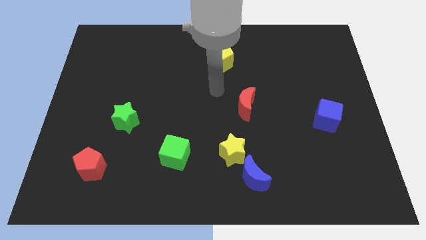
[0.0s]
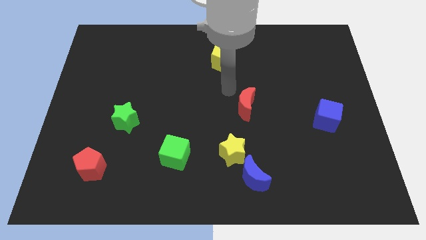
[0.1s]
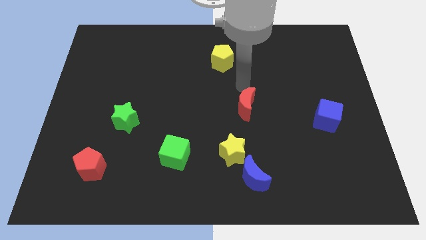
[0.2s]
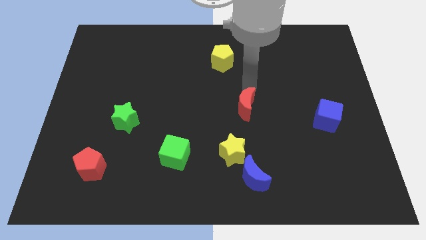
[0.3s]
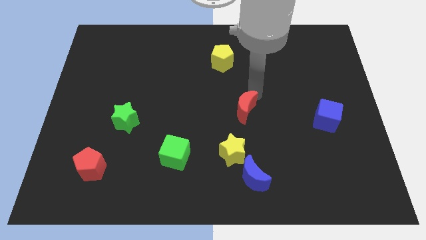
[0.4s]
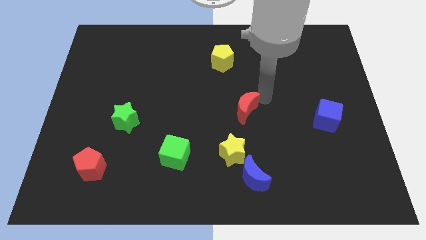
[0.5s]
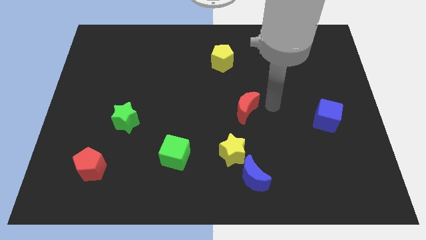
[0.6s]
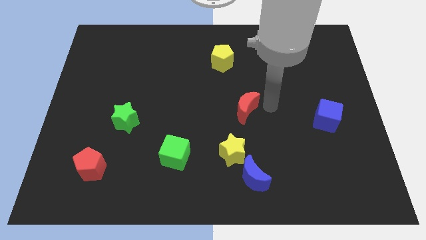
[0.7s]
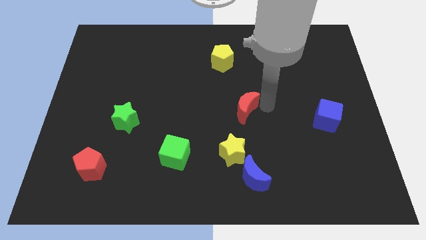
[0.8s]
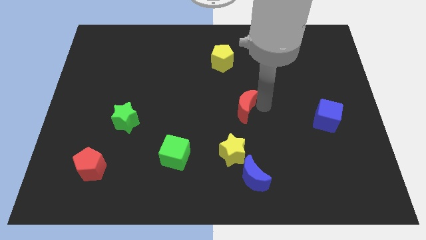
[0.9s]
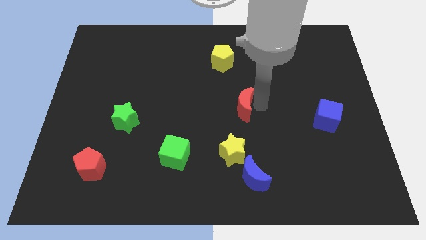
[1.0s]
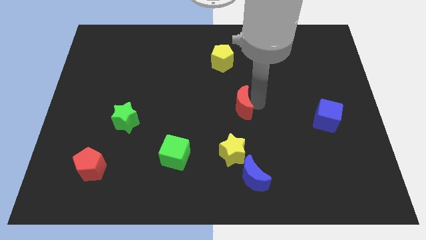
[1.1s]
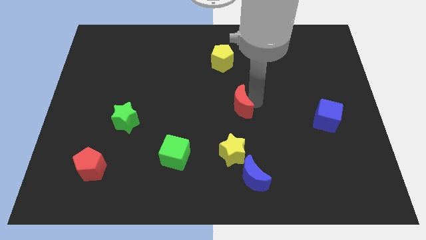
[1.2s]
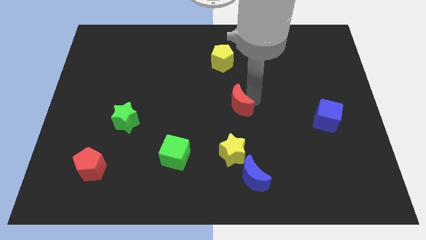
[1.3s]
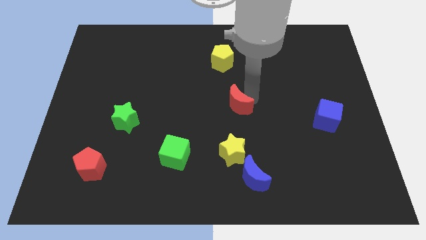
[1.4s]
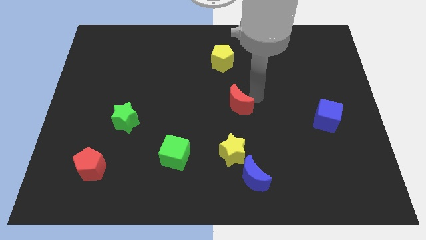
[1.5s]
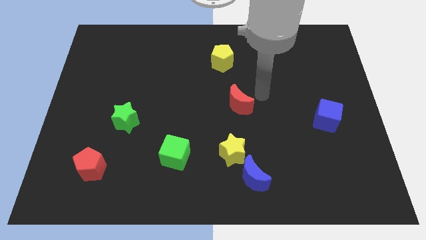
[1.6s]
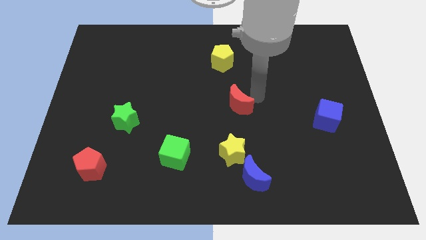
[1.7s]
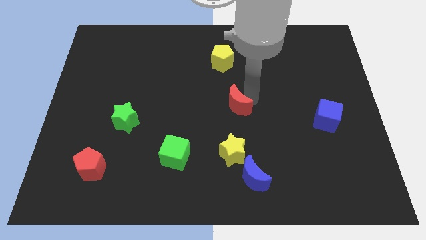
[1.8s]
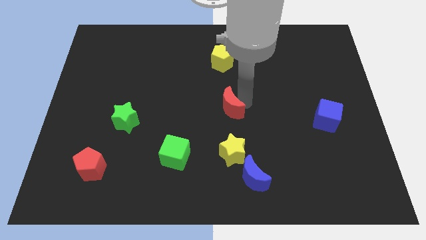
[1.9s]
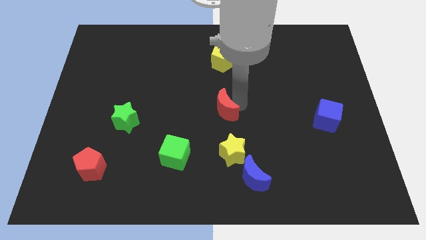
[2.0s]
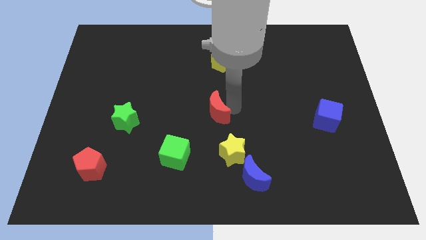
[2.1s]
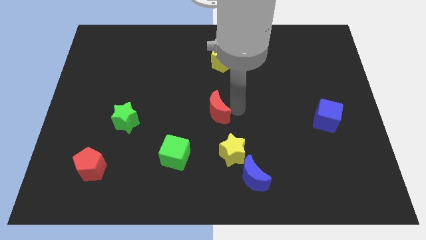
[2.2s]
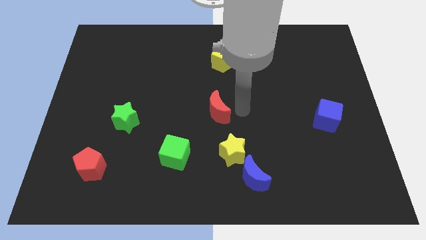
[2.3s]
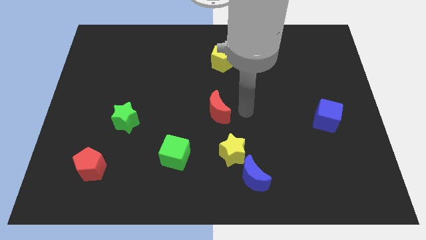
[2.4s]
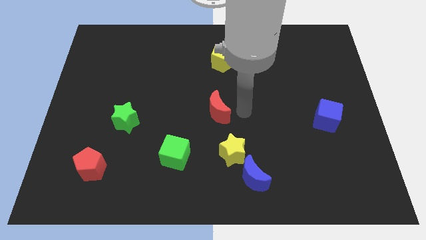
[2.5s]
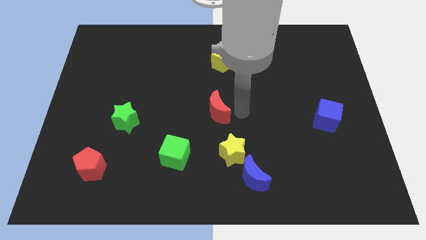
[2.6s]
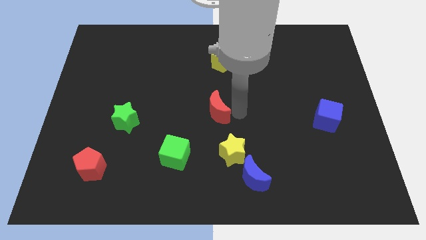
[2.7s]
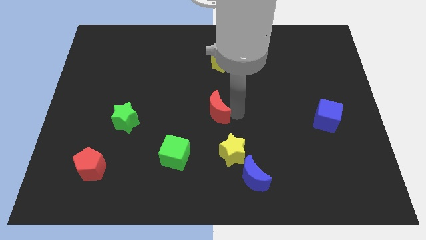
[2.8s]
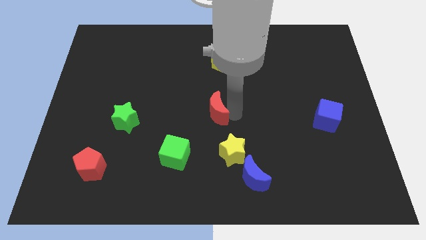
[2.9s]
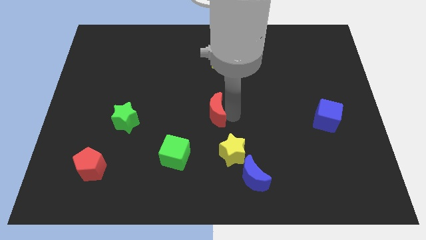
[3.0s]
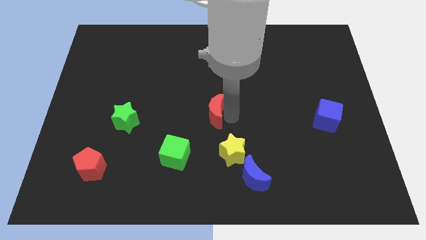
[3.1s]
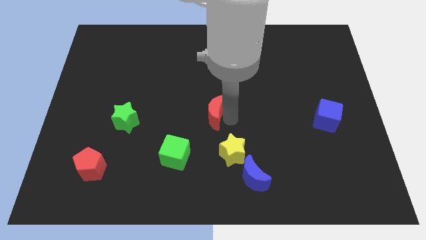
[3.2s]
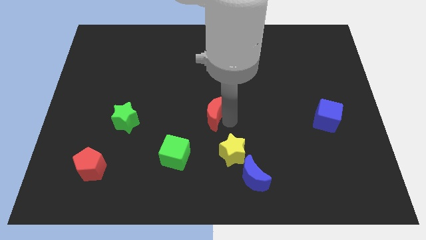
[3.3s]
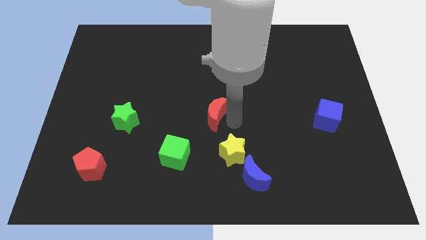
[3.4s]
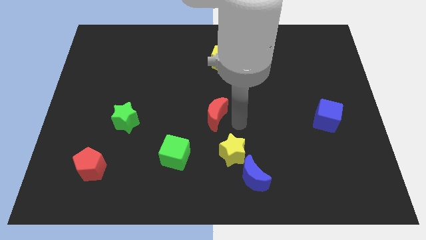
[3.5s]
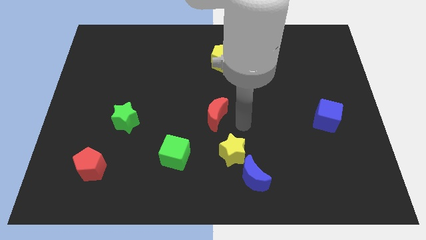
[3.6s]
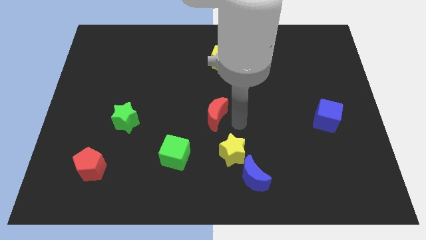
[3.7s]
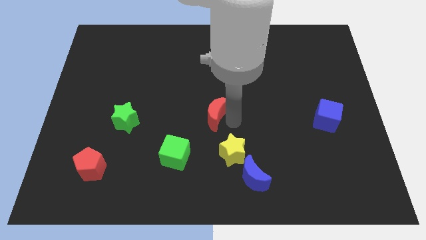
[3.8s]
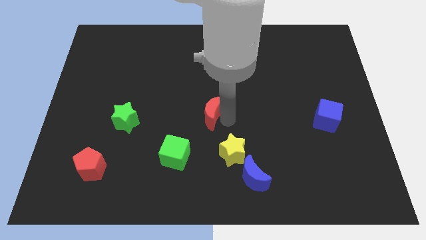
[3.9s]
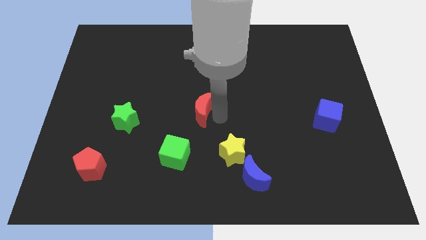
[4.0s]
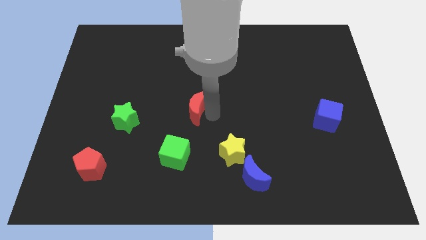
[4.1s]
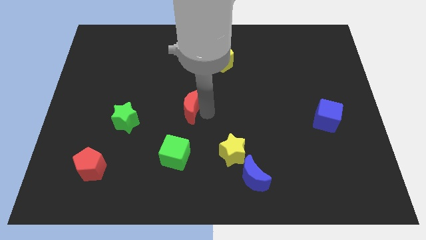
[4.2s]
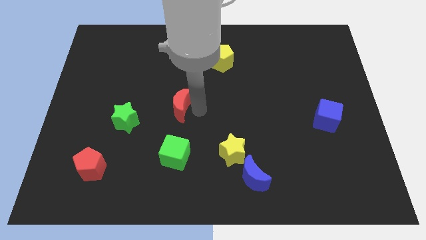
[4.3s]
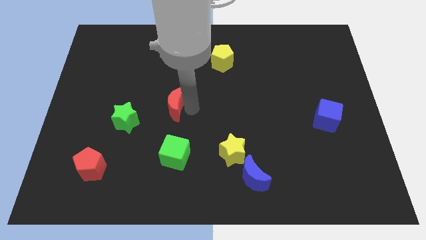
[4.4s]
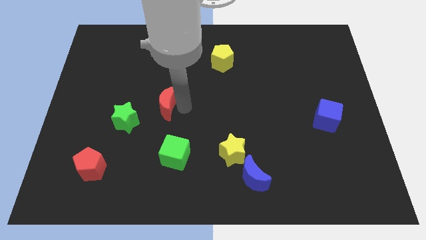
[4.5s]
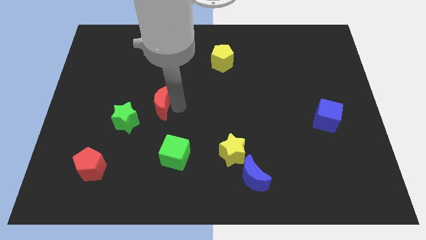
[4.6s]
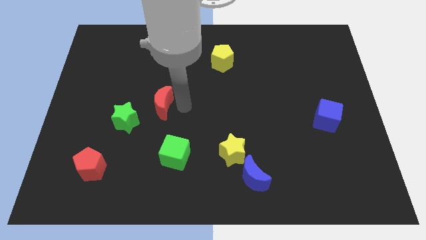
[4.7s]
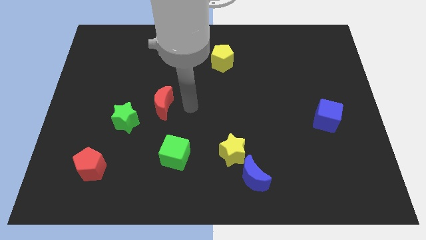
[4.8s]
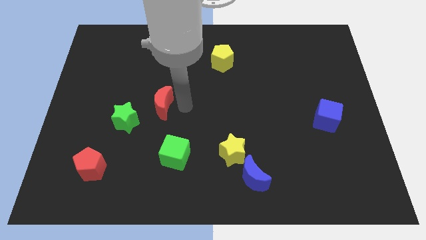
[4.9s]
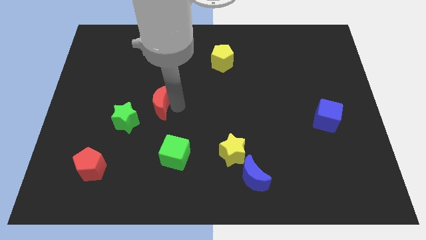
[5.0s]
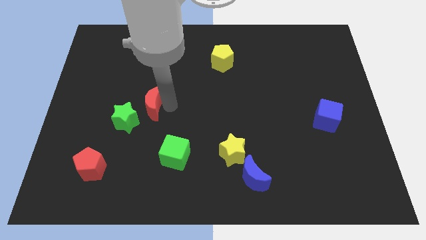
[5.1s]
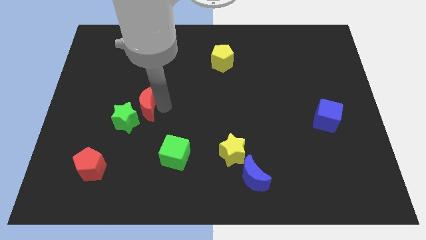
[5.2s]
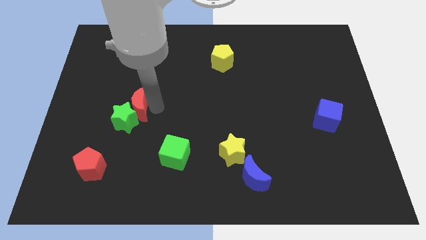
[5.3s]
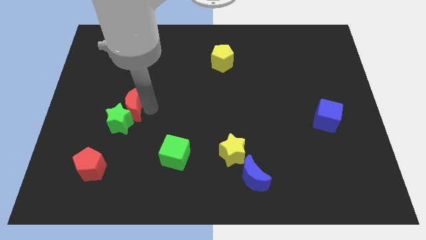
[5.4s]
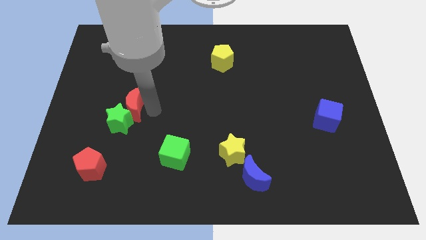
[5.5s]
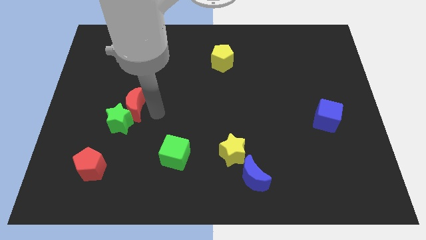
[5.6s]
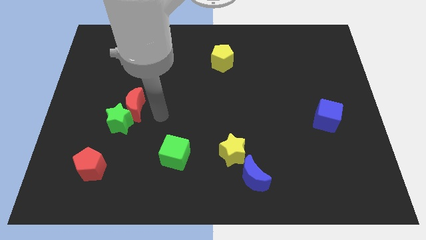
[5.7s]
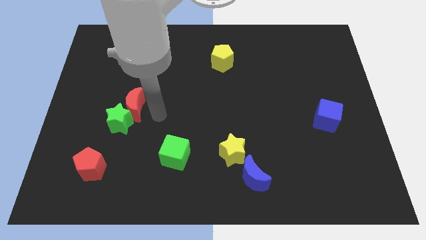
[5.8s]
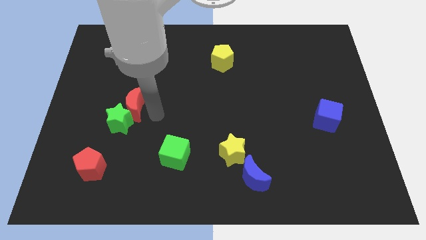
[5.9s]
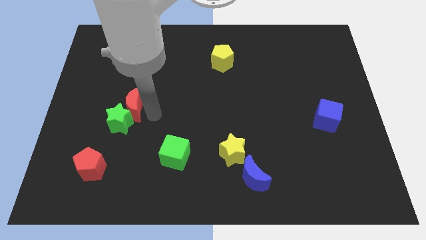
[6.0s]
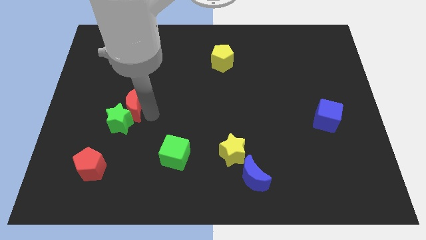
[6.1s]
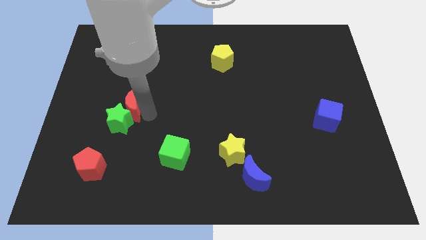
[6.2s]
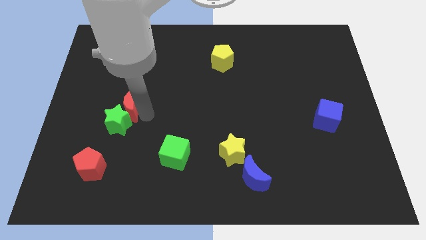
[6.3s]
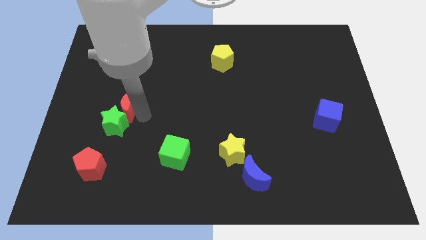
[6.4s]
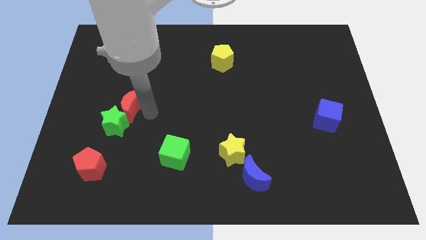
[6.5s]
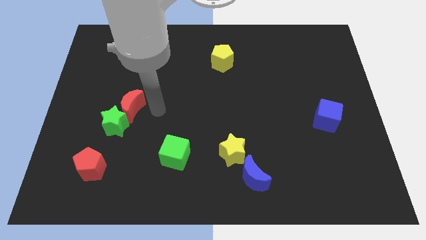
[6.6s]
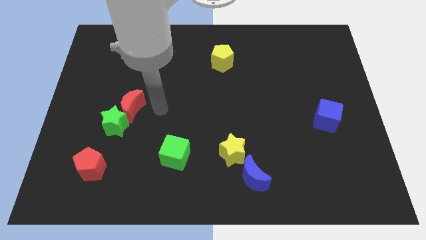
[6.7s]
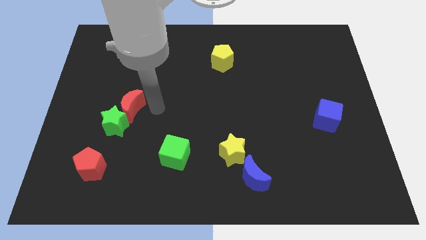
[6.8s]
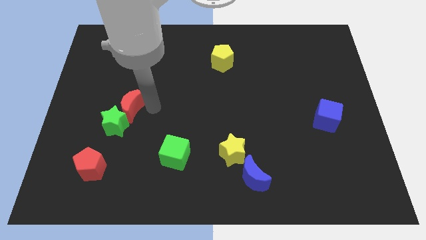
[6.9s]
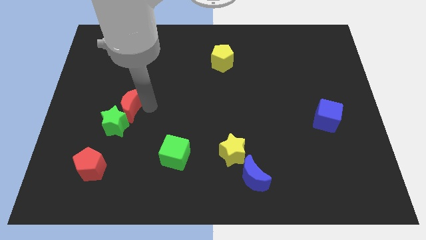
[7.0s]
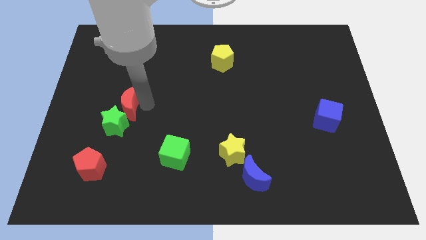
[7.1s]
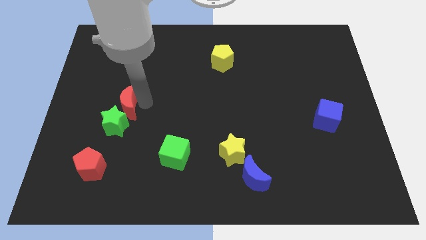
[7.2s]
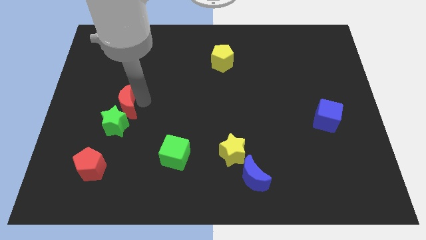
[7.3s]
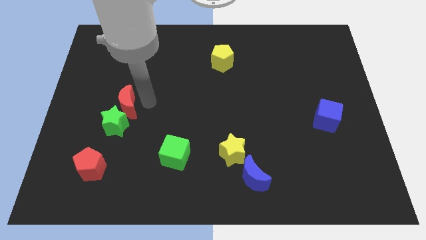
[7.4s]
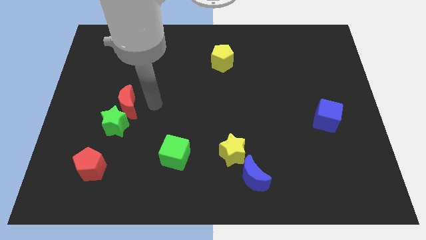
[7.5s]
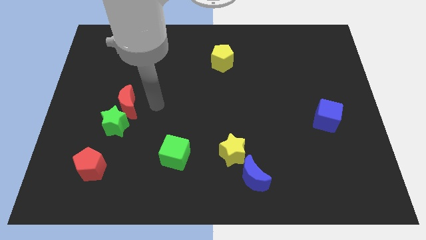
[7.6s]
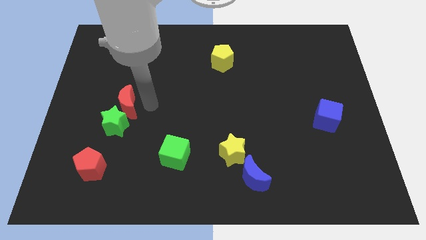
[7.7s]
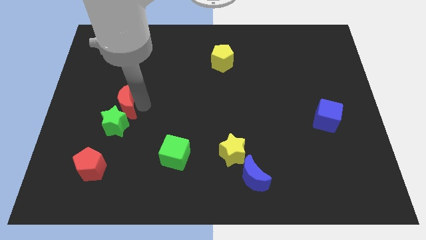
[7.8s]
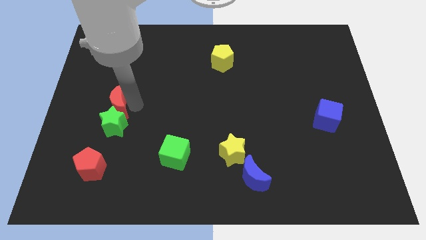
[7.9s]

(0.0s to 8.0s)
push the red moon to the top left side of the green star
